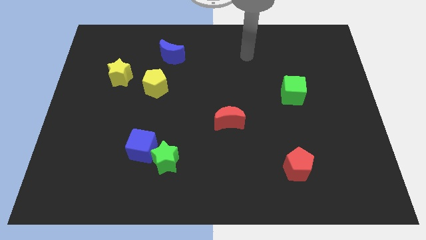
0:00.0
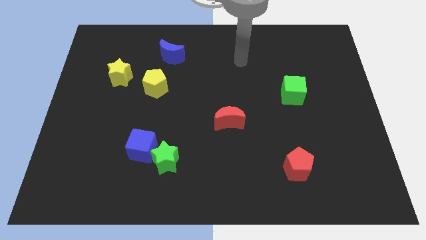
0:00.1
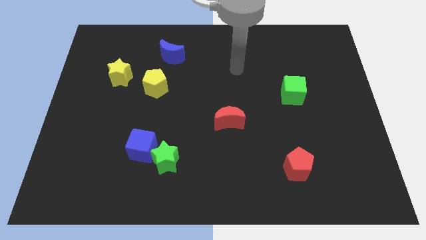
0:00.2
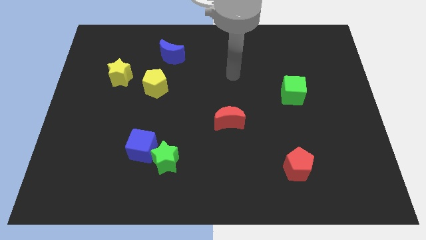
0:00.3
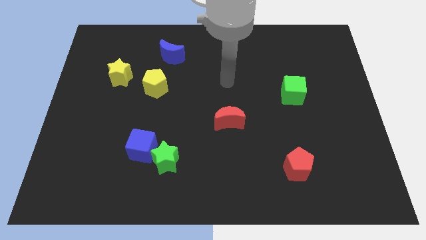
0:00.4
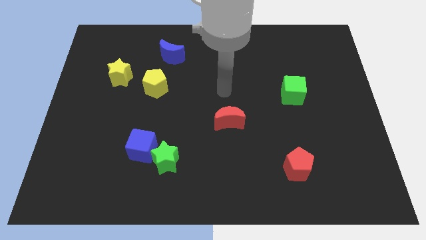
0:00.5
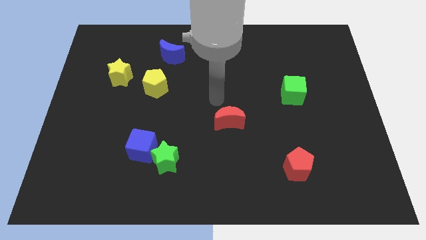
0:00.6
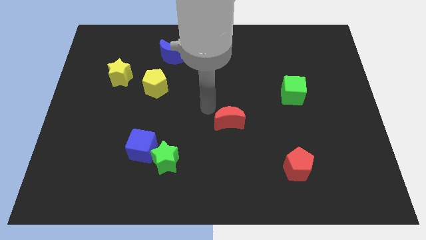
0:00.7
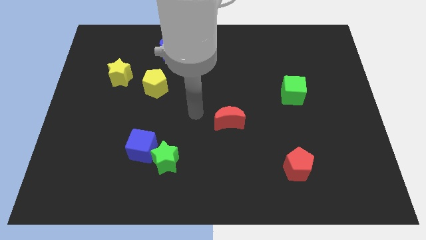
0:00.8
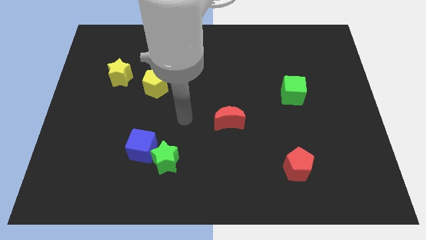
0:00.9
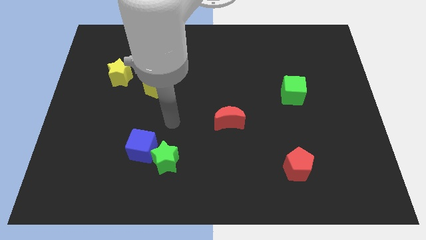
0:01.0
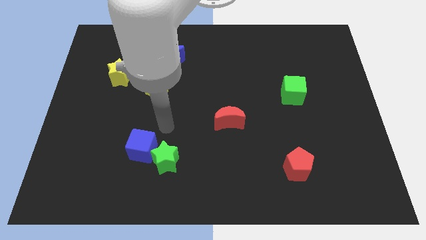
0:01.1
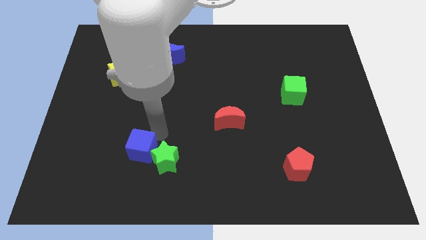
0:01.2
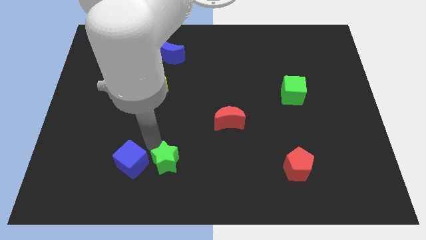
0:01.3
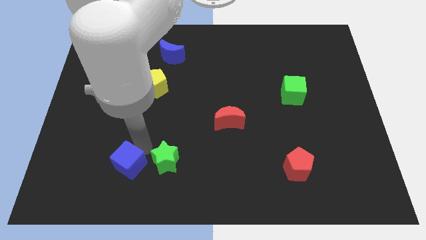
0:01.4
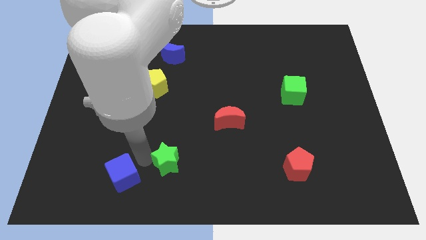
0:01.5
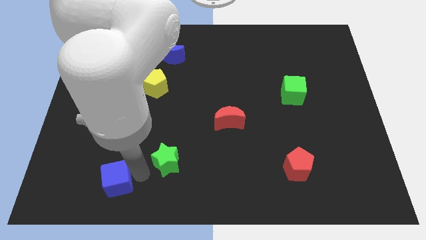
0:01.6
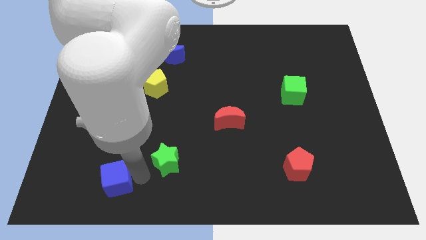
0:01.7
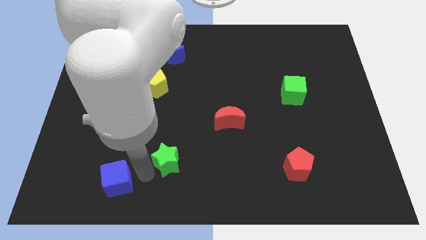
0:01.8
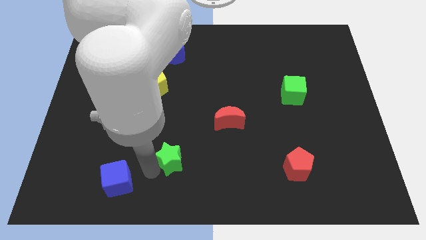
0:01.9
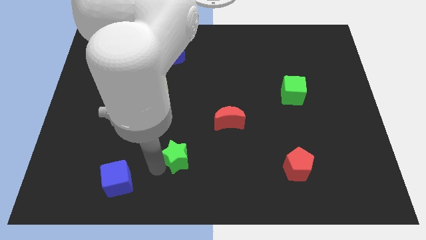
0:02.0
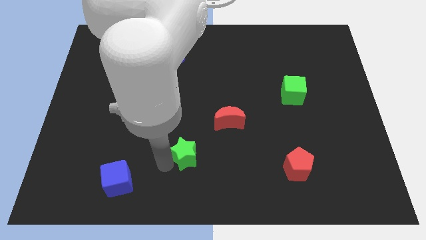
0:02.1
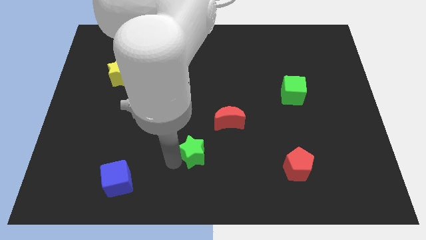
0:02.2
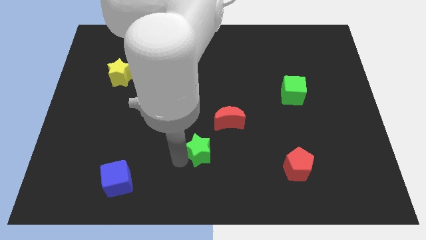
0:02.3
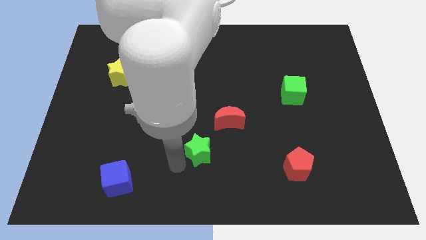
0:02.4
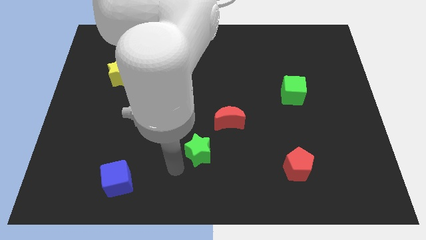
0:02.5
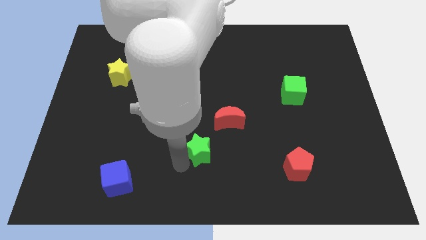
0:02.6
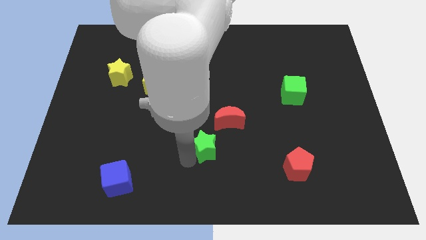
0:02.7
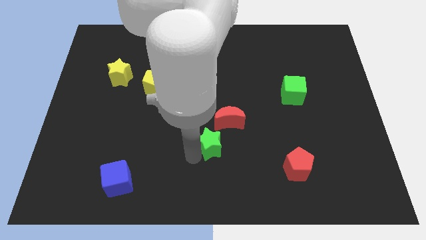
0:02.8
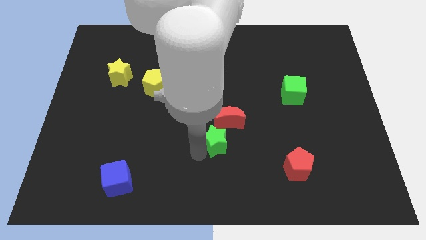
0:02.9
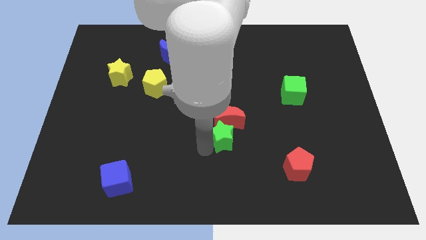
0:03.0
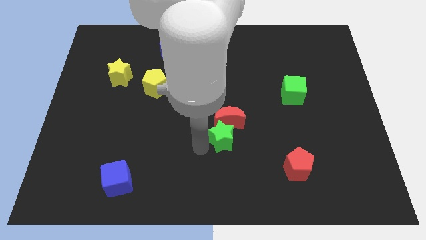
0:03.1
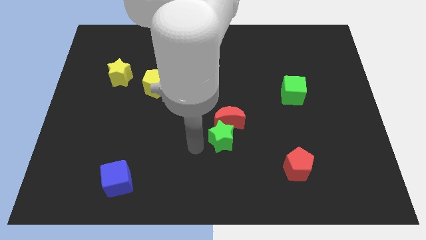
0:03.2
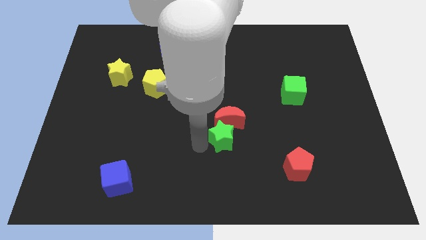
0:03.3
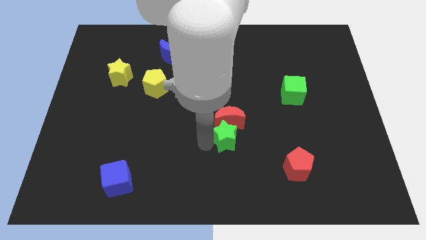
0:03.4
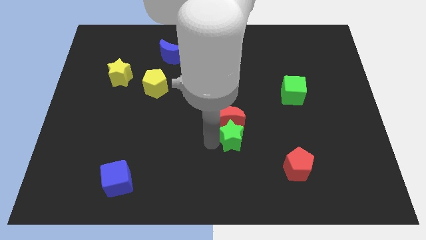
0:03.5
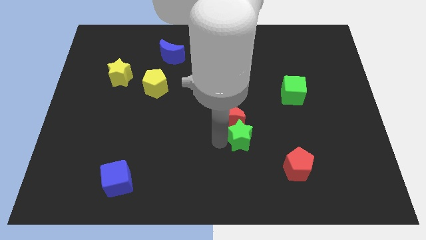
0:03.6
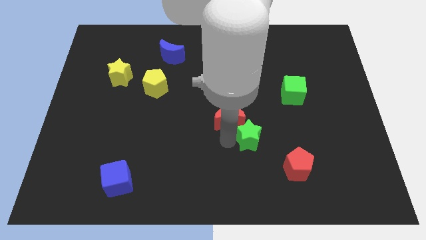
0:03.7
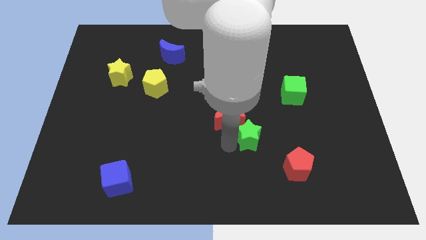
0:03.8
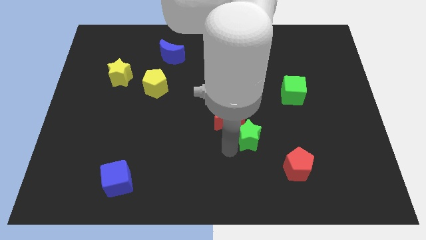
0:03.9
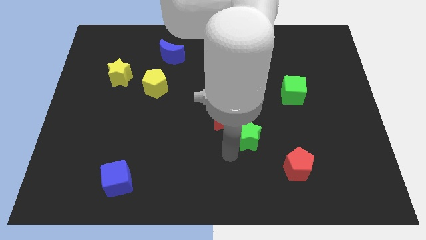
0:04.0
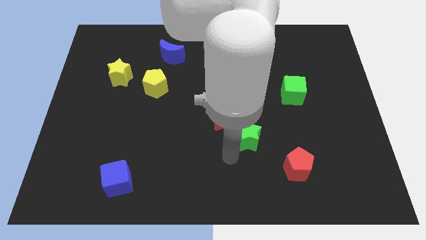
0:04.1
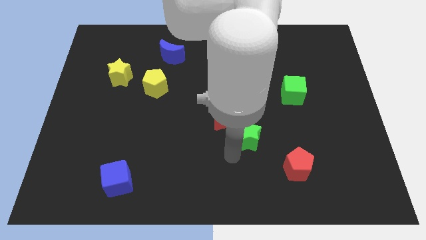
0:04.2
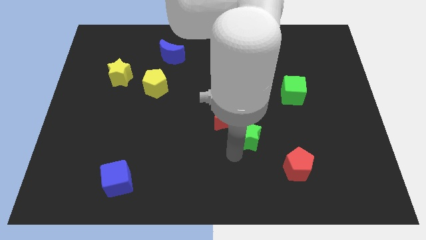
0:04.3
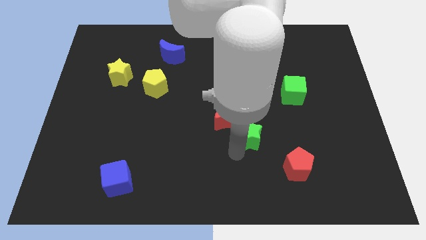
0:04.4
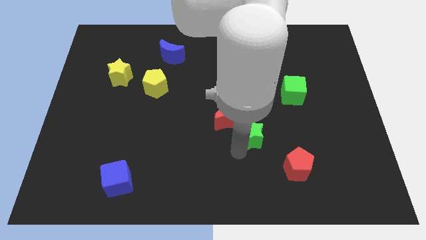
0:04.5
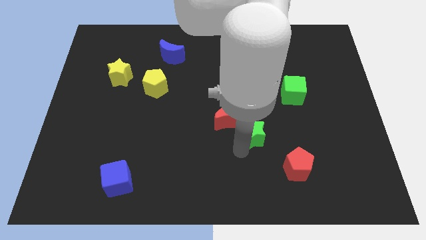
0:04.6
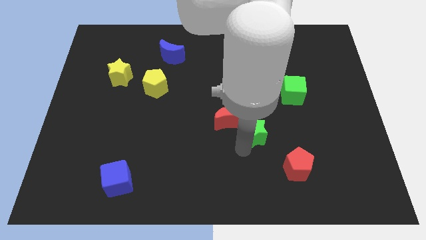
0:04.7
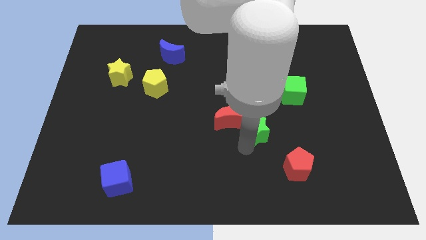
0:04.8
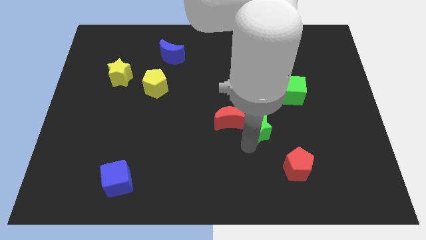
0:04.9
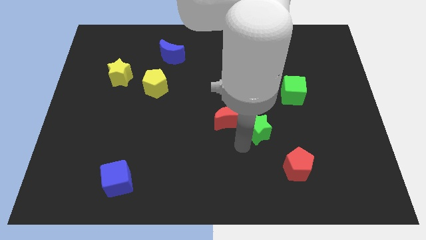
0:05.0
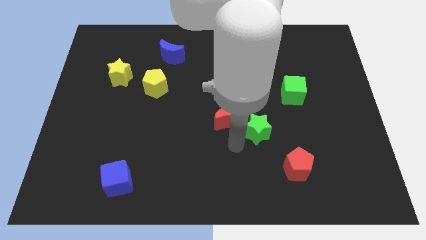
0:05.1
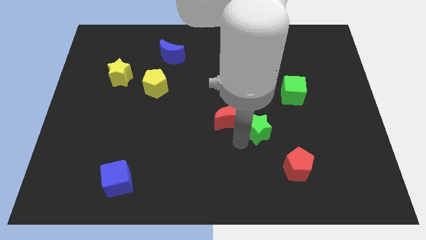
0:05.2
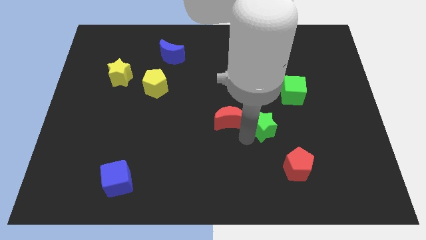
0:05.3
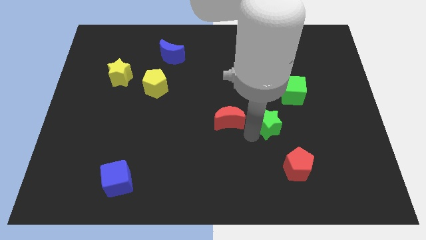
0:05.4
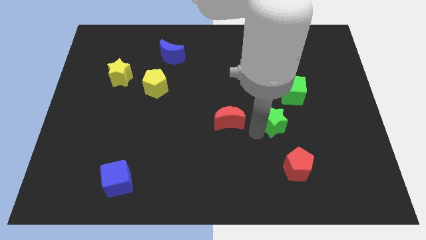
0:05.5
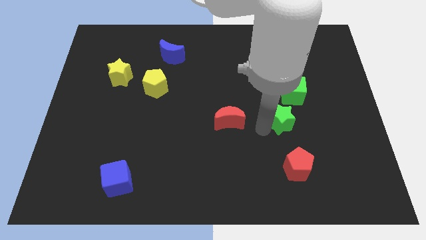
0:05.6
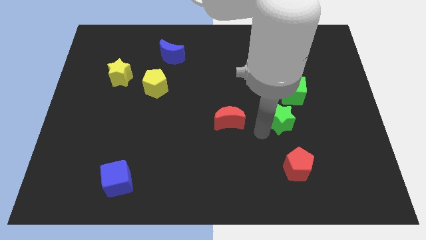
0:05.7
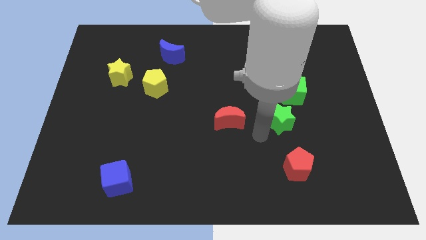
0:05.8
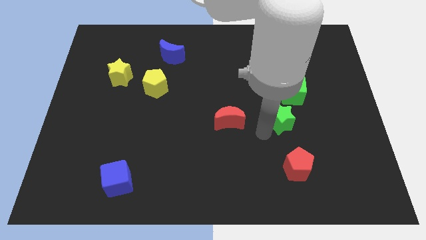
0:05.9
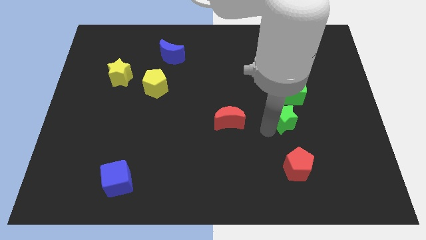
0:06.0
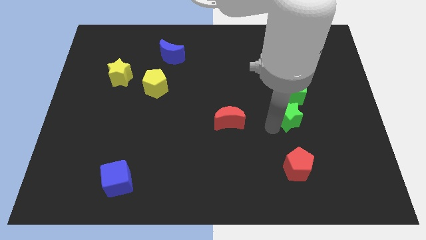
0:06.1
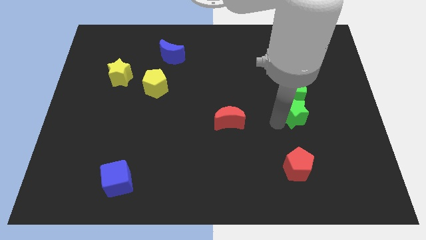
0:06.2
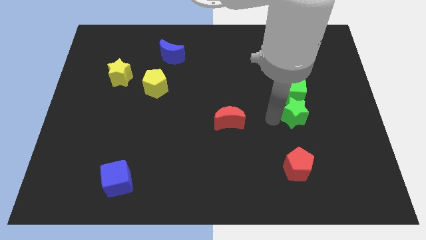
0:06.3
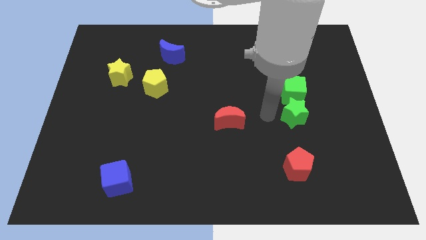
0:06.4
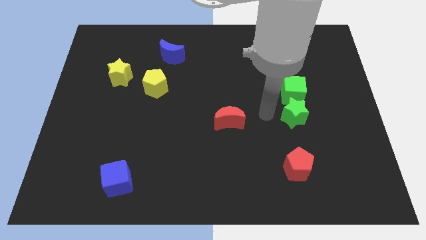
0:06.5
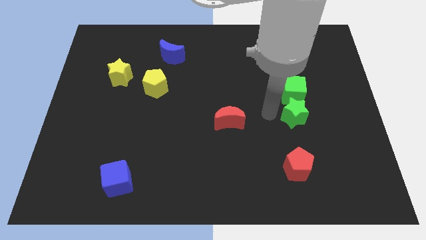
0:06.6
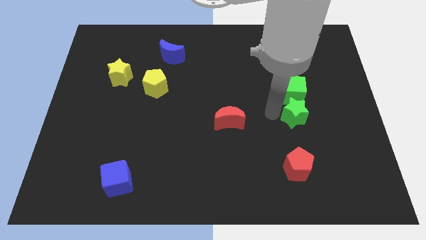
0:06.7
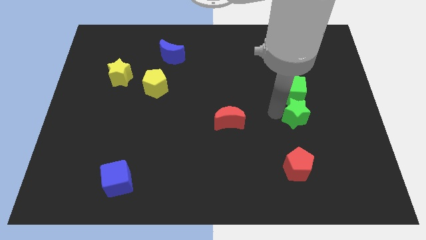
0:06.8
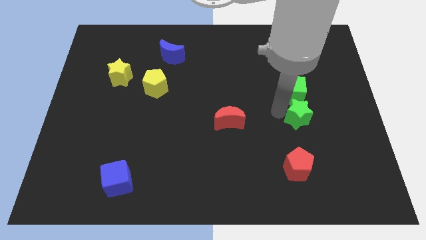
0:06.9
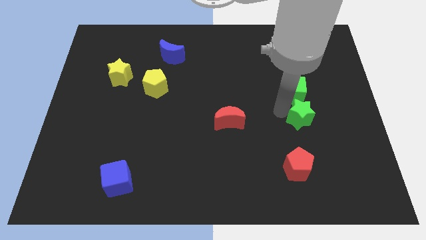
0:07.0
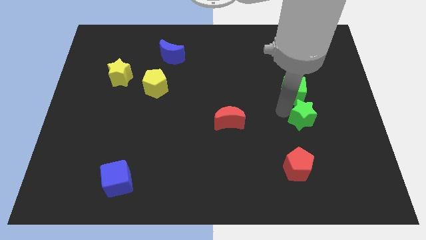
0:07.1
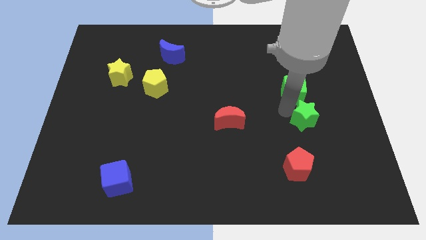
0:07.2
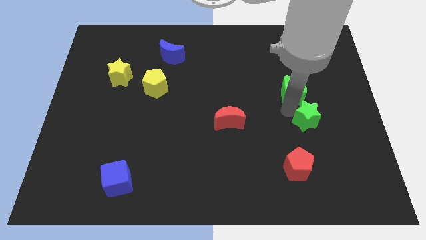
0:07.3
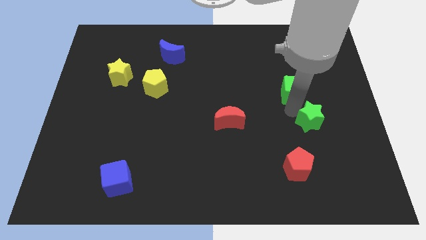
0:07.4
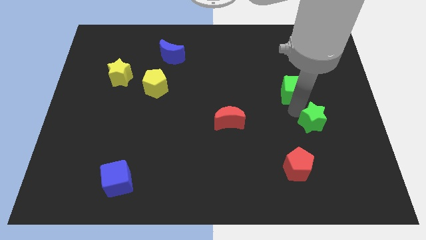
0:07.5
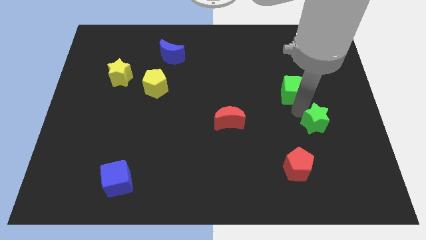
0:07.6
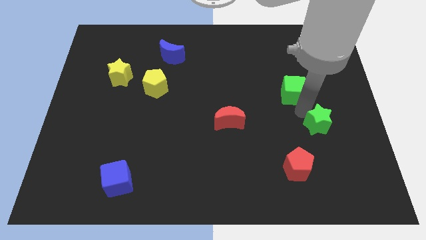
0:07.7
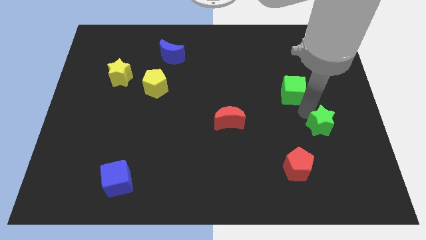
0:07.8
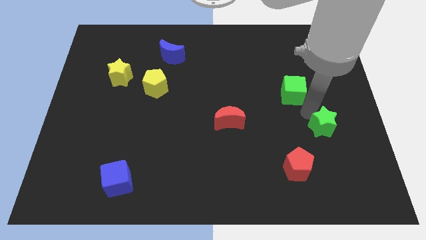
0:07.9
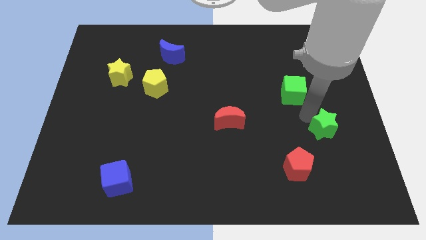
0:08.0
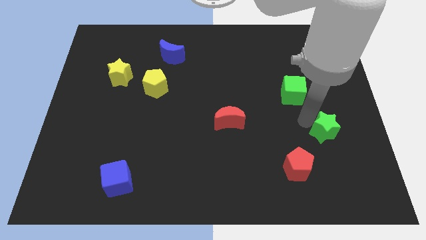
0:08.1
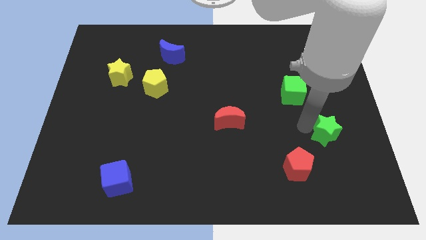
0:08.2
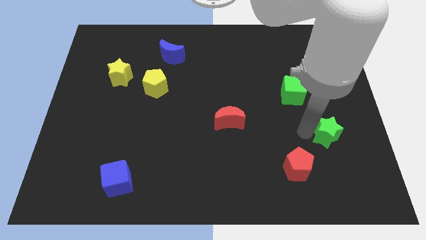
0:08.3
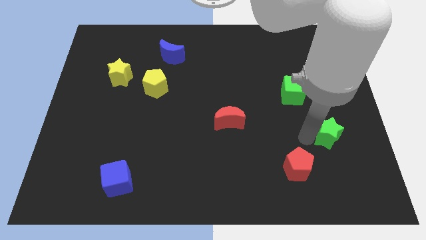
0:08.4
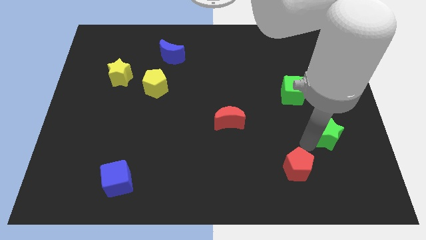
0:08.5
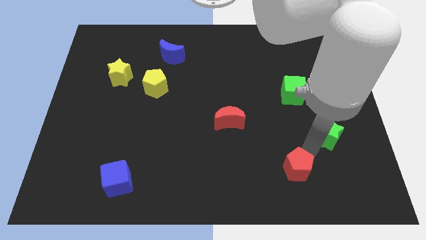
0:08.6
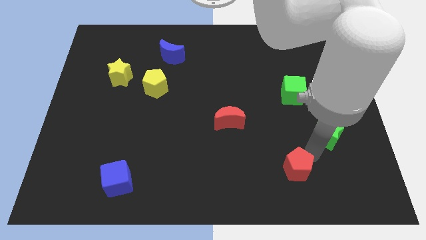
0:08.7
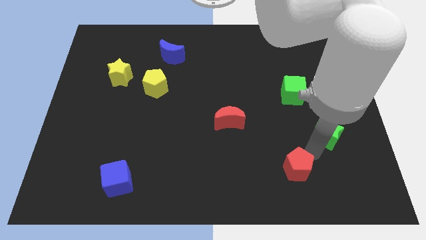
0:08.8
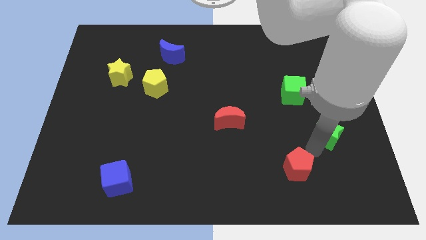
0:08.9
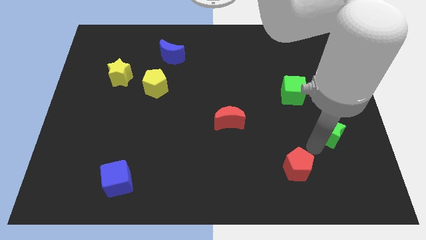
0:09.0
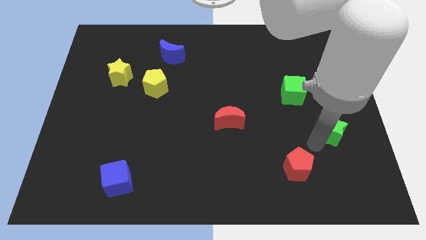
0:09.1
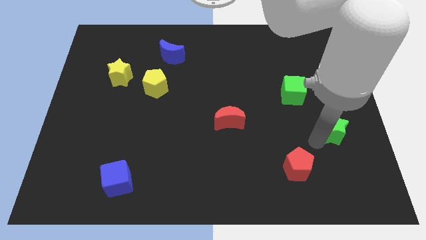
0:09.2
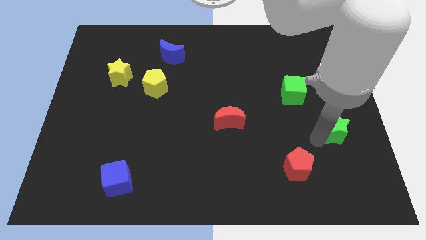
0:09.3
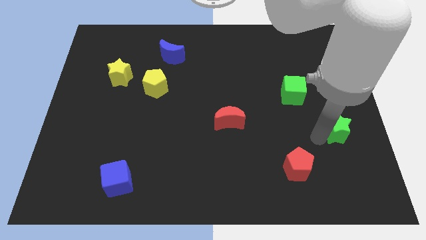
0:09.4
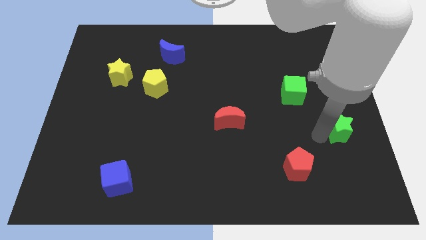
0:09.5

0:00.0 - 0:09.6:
move the green star to the right side
